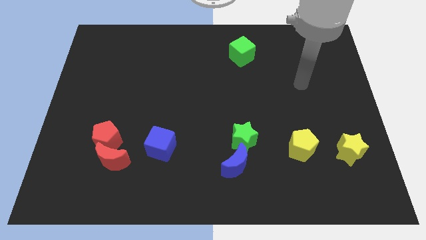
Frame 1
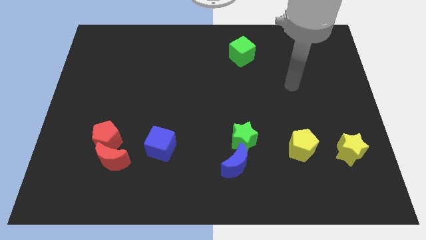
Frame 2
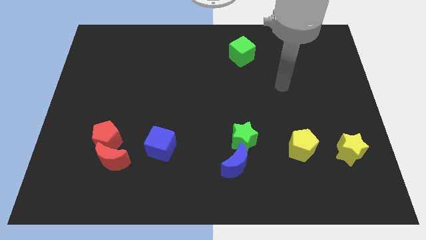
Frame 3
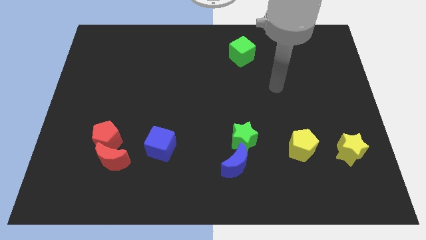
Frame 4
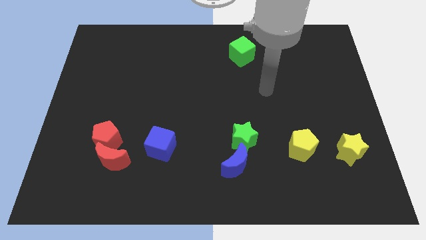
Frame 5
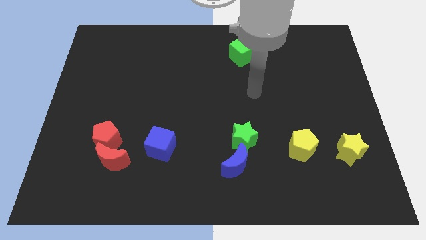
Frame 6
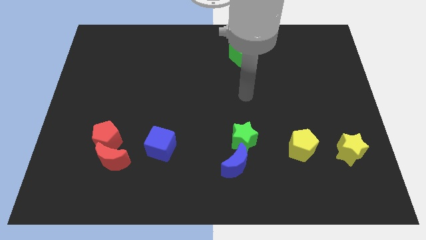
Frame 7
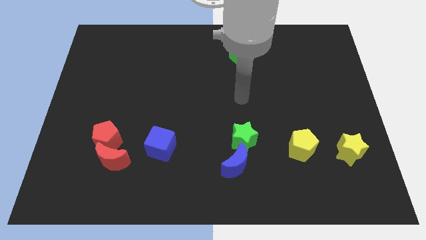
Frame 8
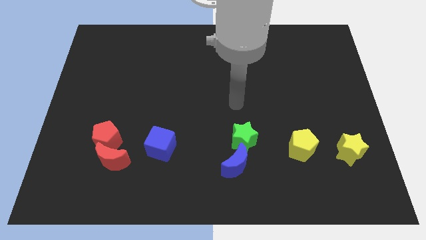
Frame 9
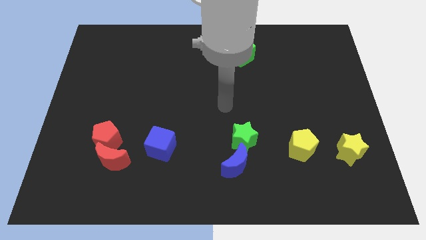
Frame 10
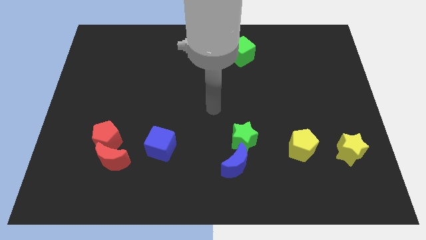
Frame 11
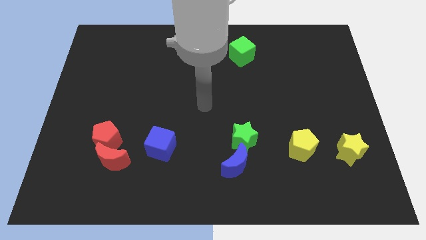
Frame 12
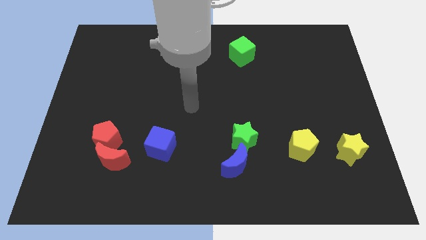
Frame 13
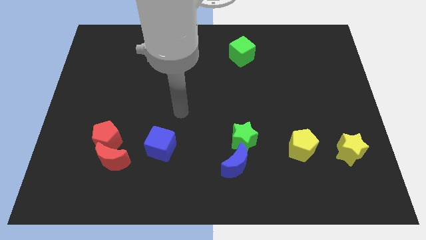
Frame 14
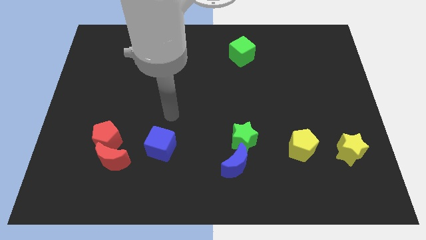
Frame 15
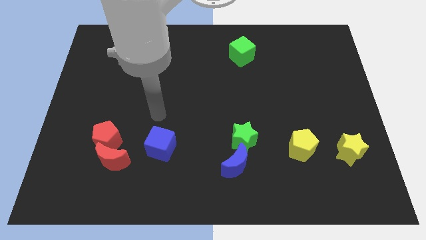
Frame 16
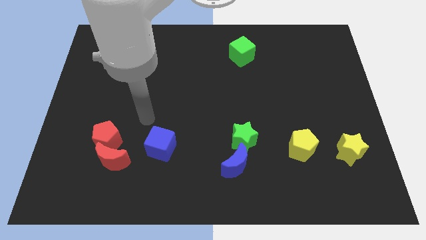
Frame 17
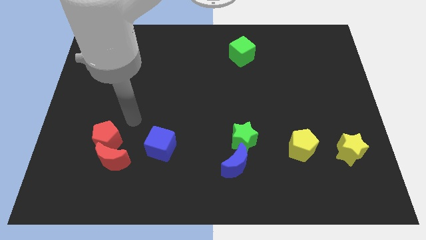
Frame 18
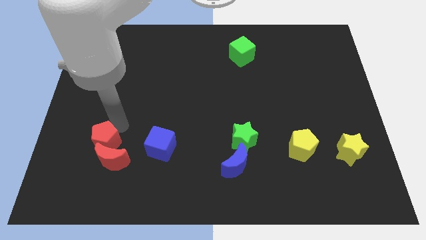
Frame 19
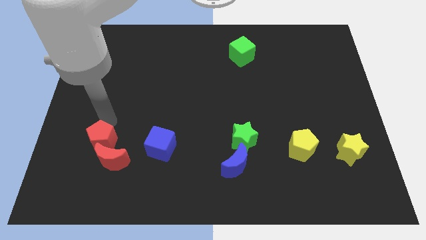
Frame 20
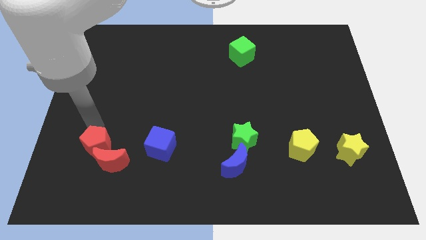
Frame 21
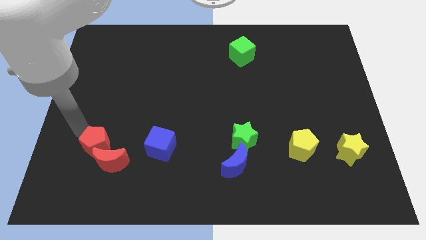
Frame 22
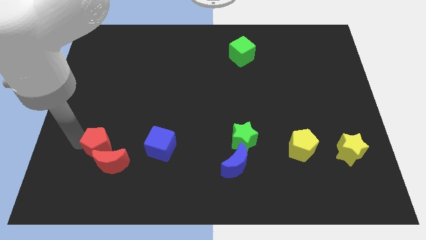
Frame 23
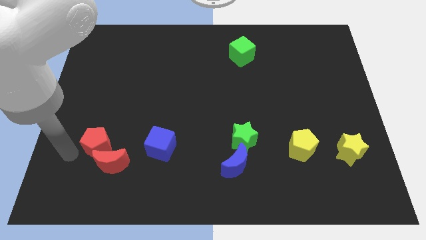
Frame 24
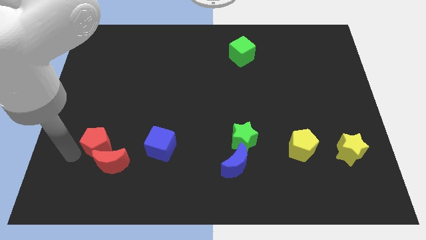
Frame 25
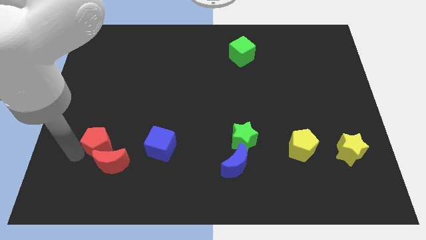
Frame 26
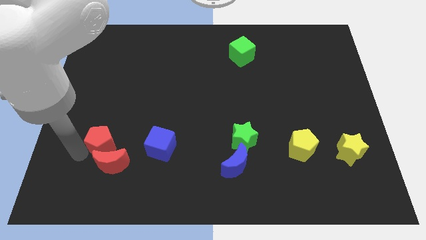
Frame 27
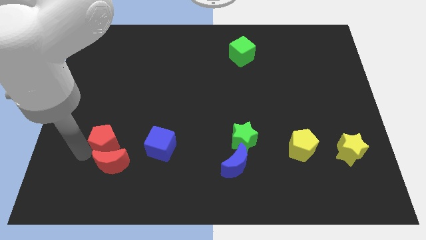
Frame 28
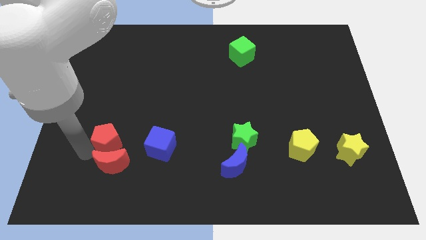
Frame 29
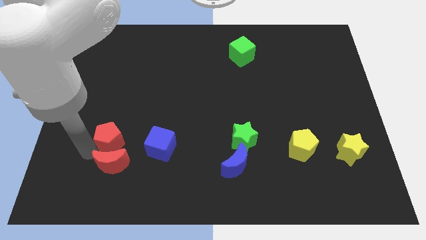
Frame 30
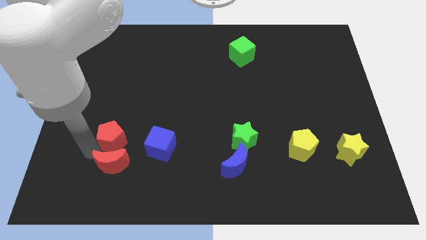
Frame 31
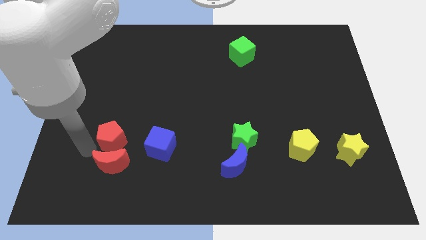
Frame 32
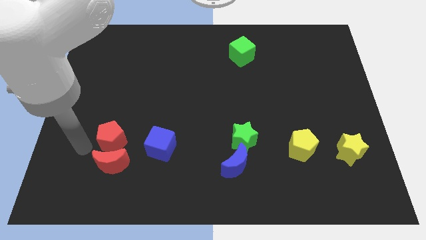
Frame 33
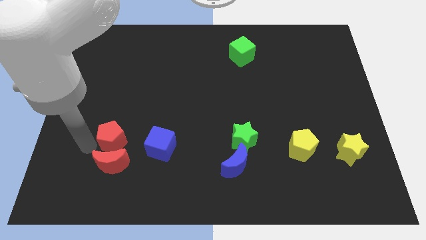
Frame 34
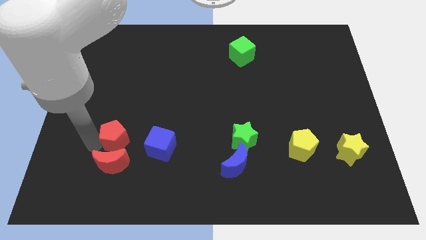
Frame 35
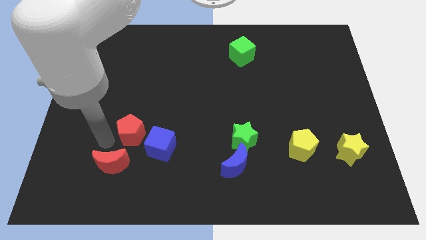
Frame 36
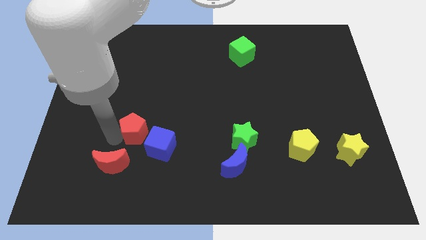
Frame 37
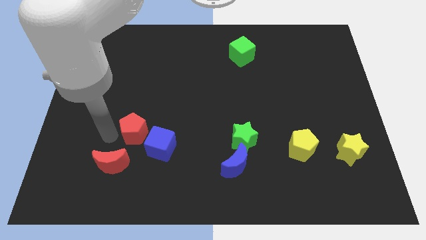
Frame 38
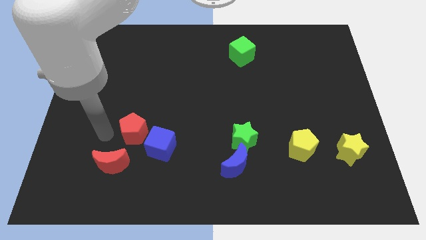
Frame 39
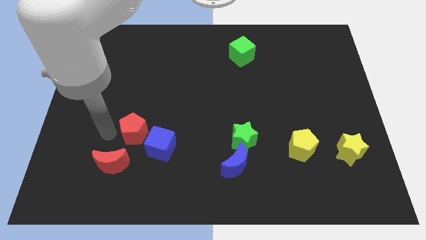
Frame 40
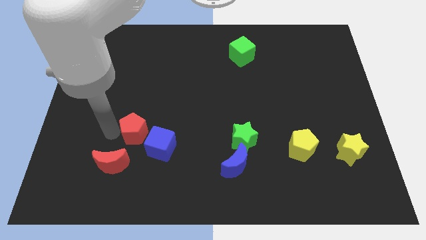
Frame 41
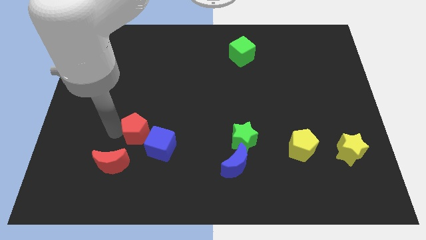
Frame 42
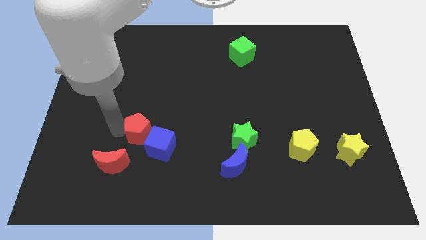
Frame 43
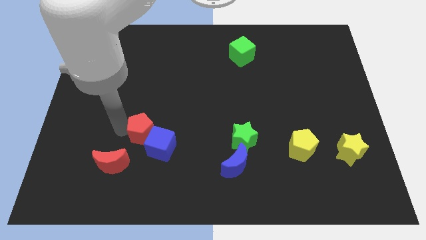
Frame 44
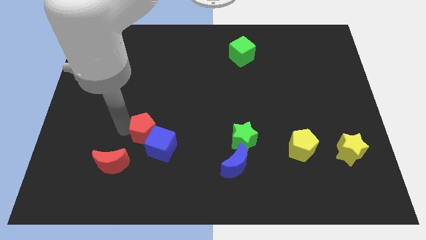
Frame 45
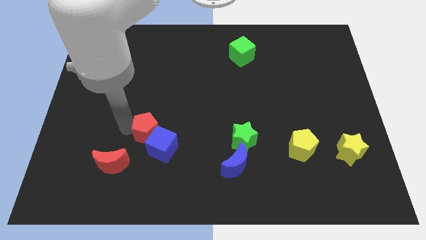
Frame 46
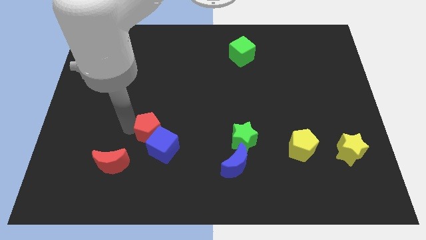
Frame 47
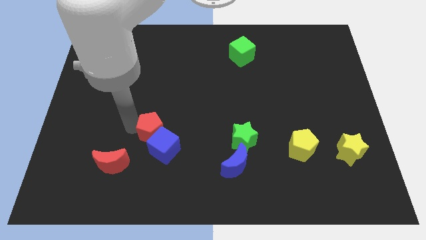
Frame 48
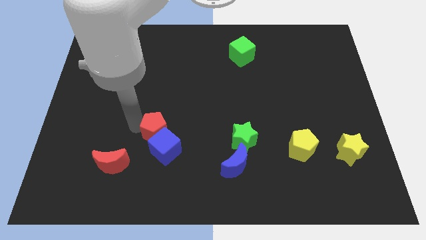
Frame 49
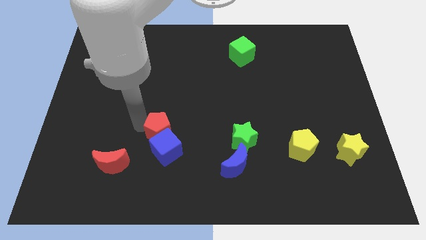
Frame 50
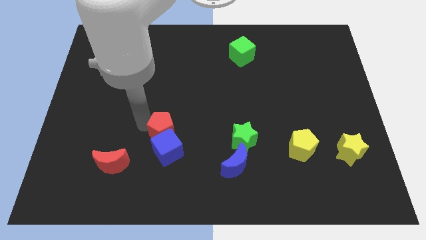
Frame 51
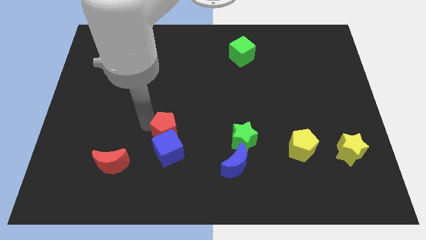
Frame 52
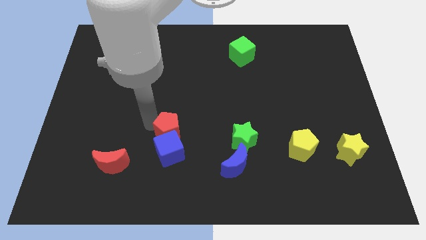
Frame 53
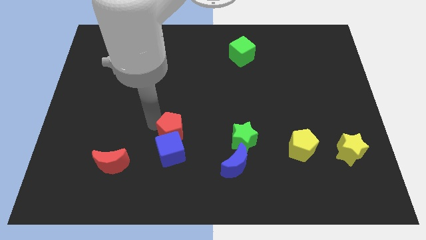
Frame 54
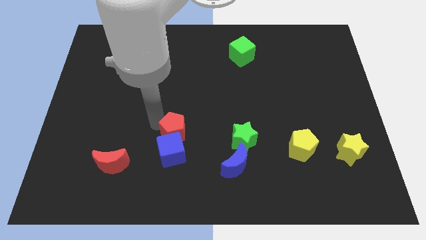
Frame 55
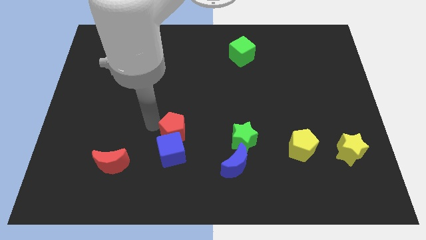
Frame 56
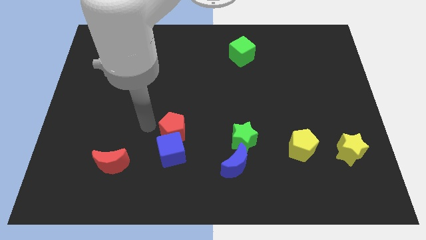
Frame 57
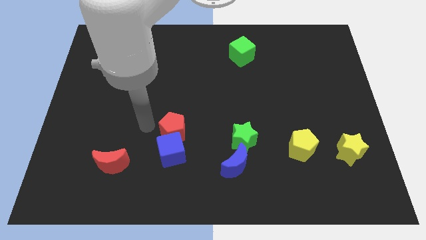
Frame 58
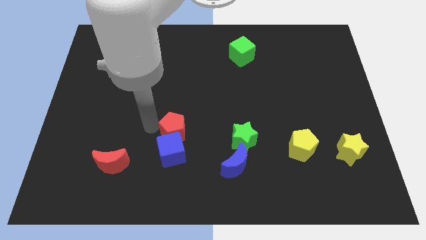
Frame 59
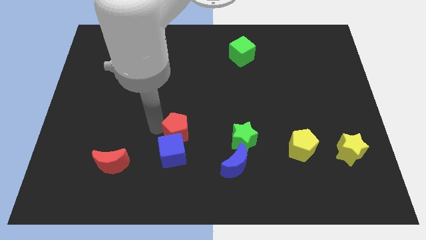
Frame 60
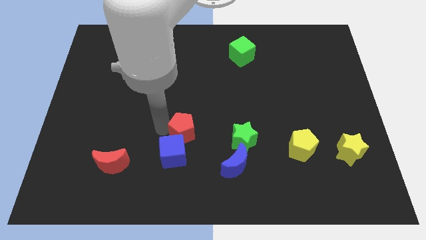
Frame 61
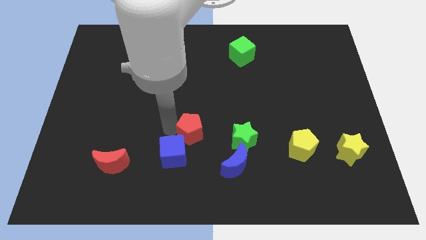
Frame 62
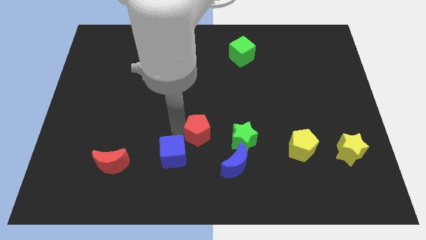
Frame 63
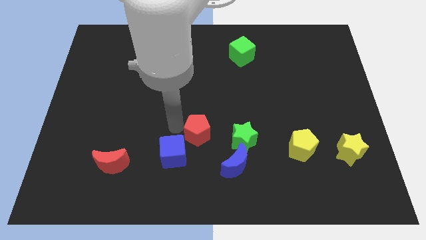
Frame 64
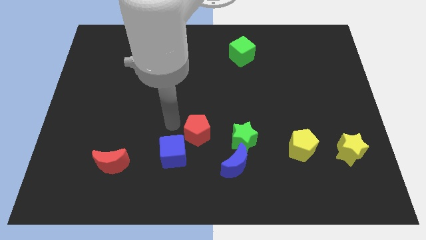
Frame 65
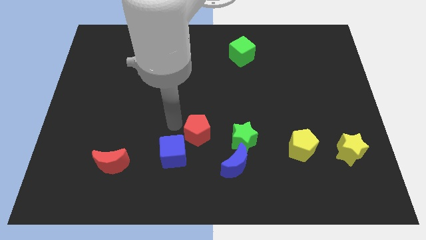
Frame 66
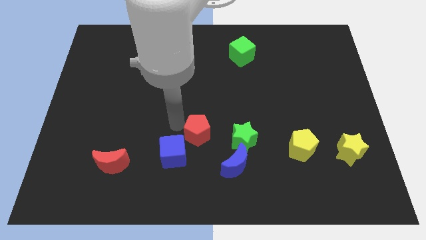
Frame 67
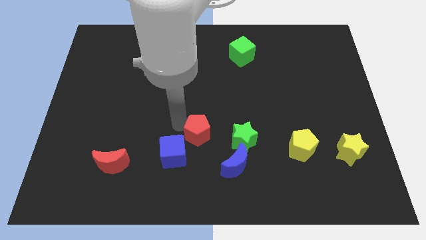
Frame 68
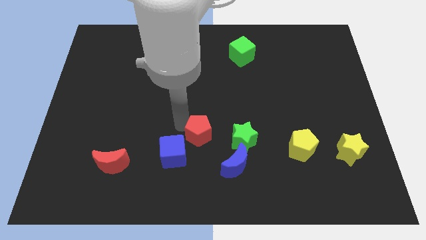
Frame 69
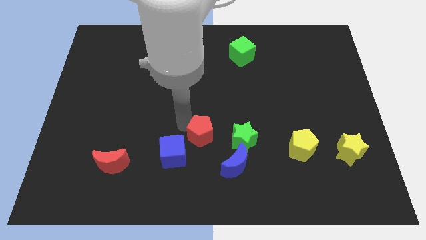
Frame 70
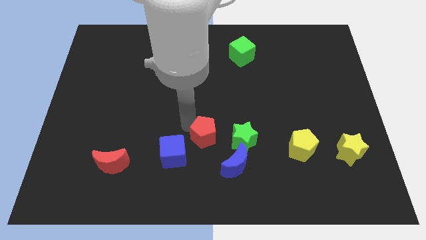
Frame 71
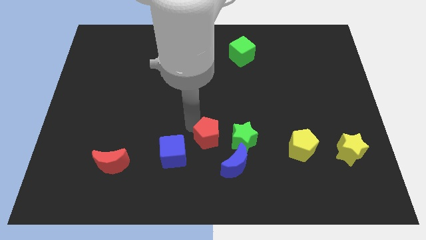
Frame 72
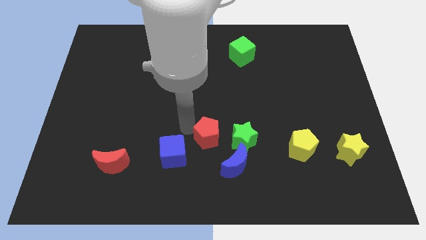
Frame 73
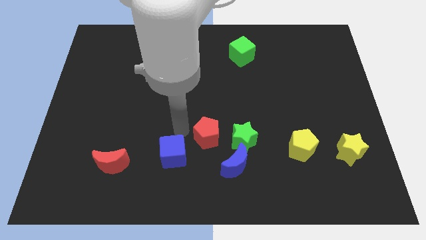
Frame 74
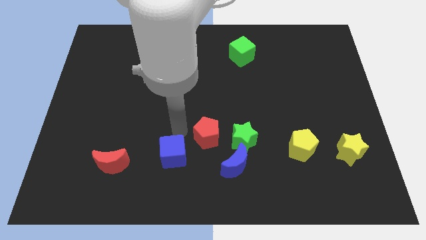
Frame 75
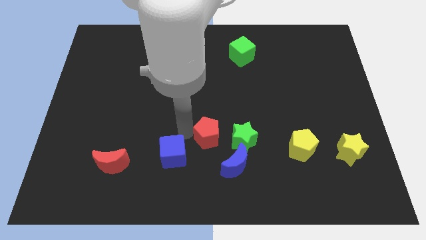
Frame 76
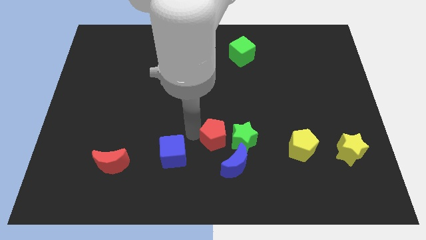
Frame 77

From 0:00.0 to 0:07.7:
move the red pentagon towards the green star
